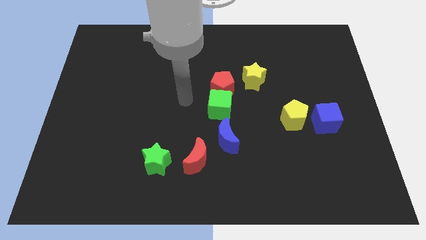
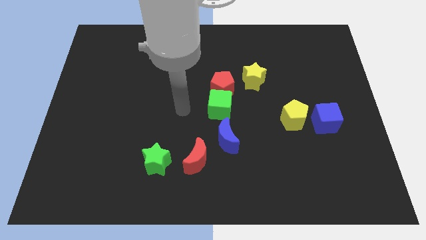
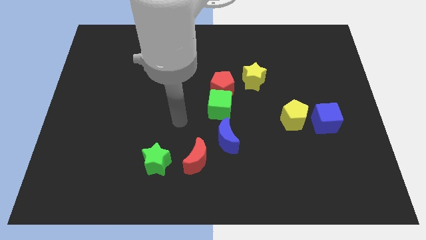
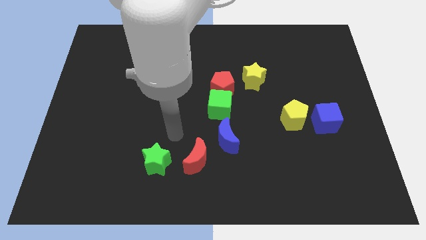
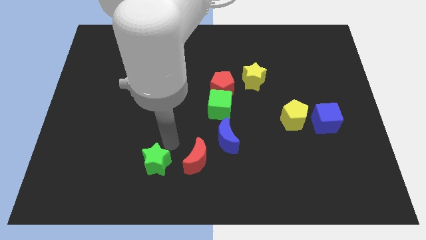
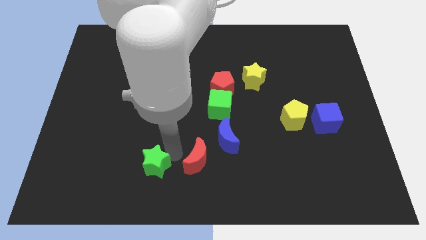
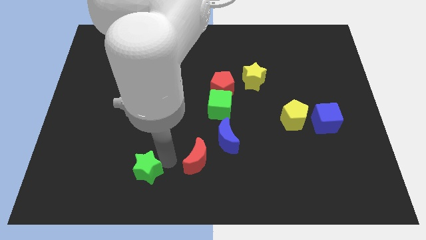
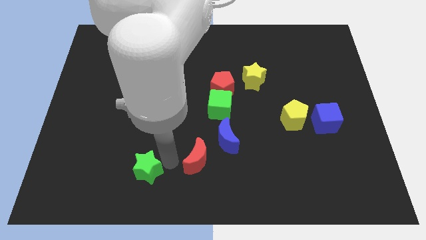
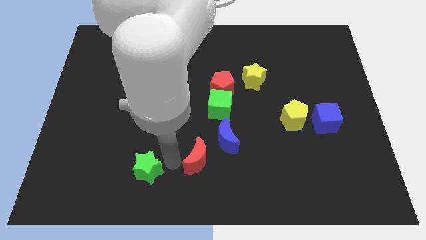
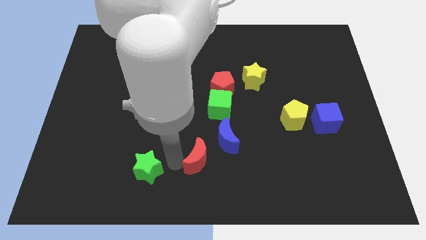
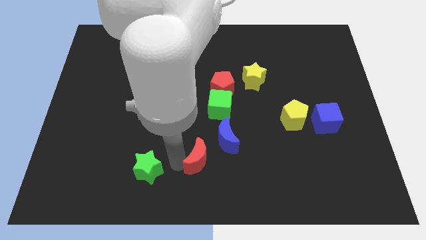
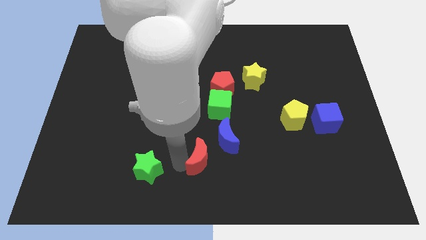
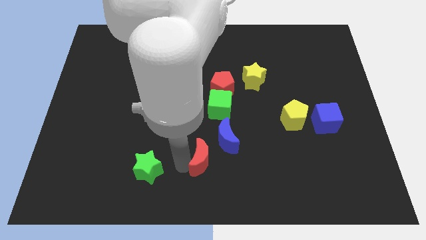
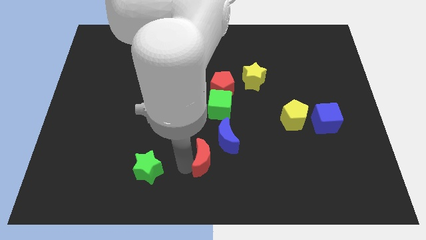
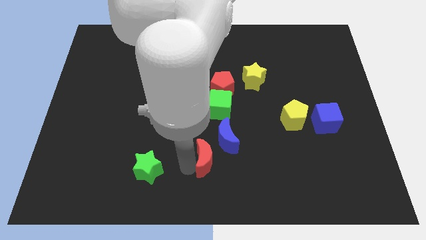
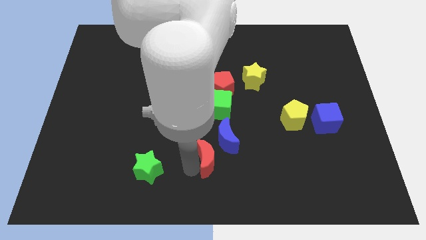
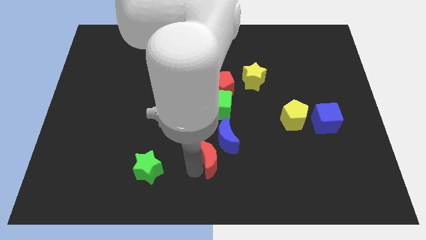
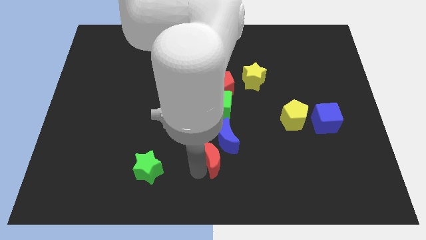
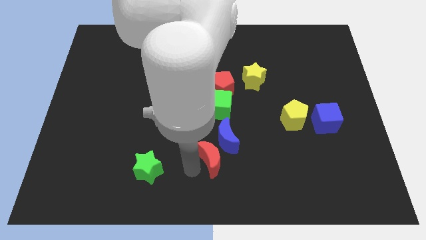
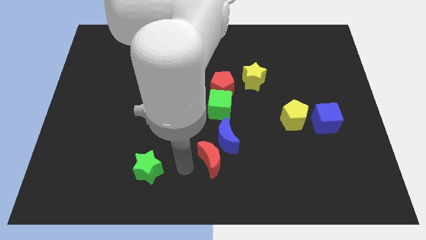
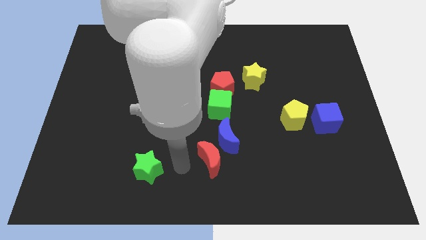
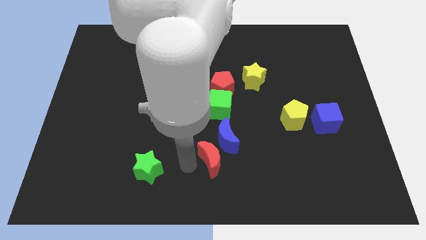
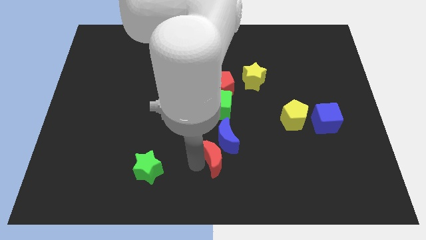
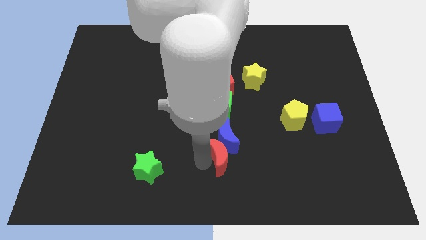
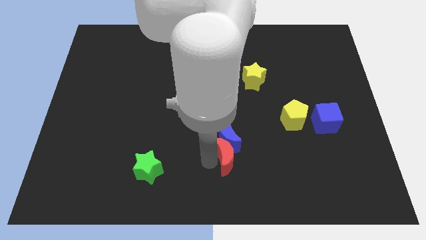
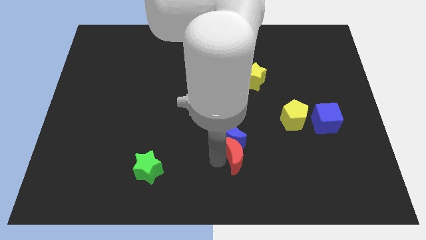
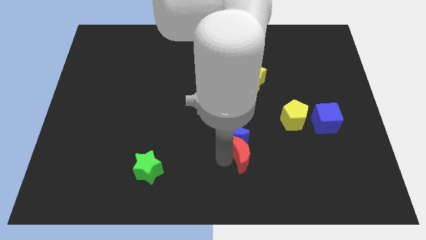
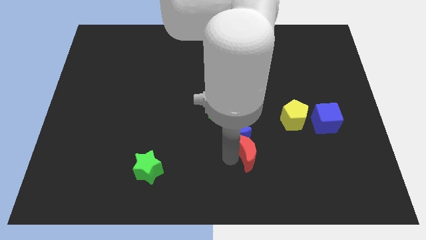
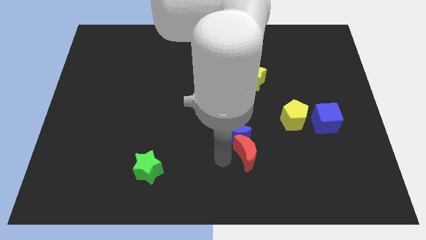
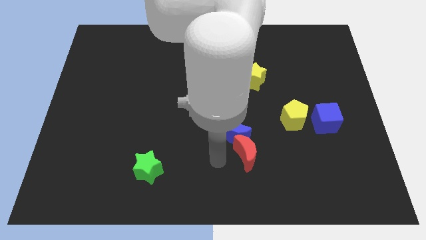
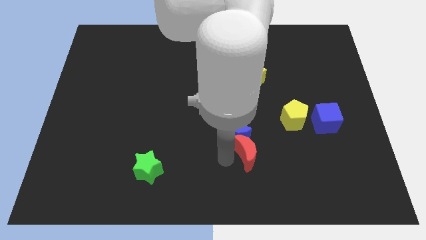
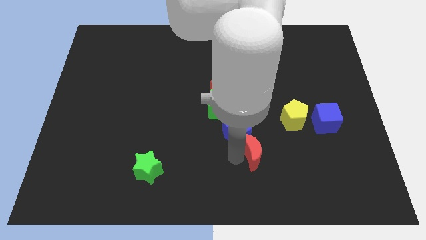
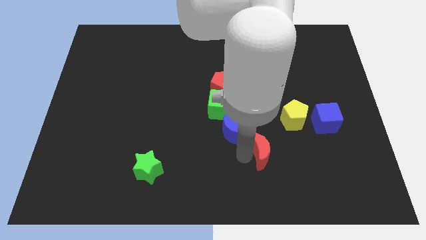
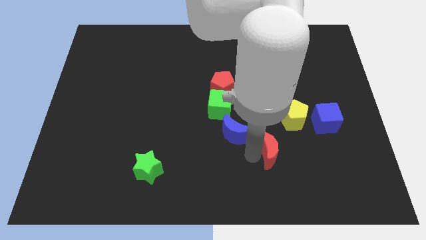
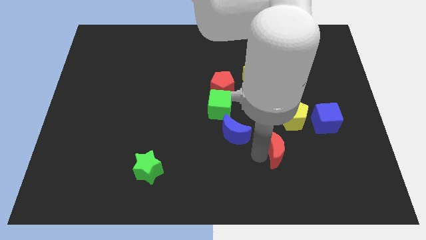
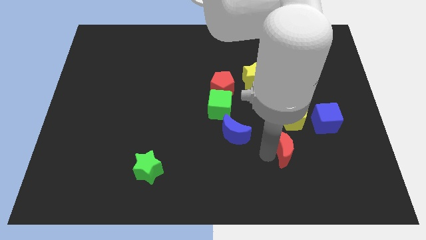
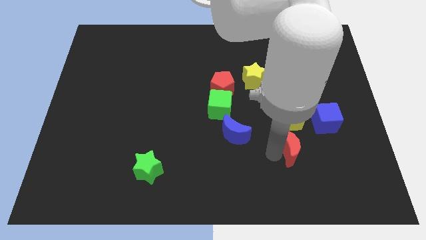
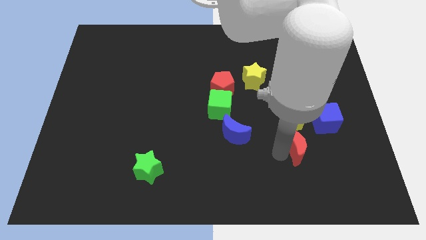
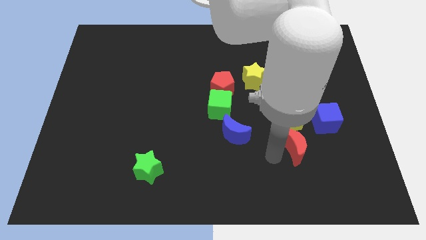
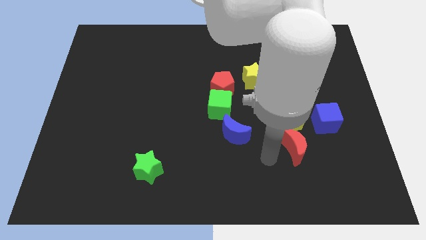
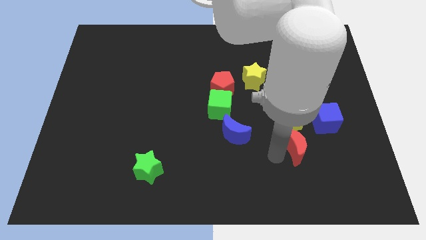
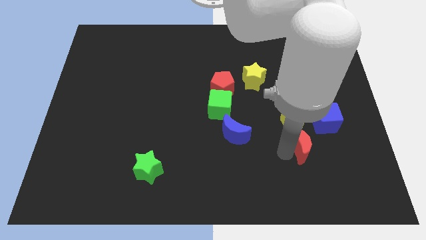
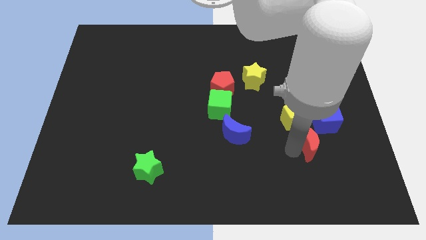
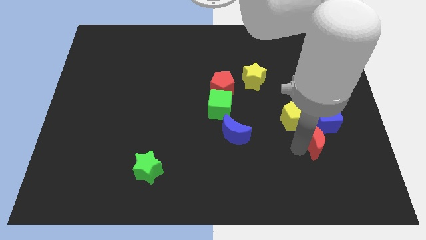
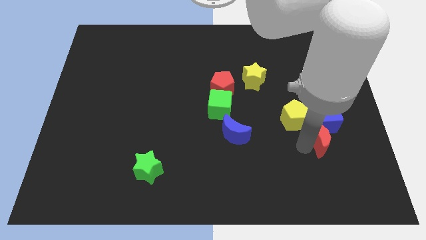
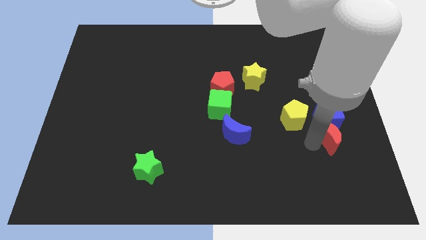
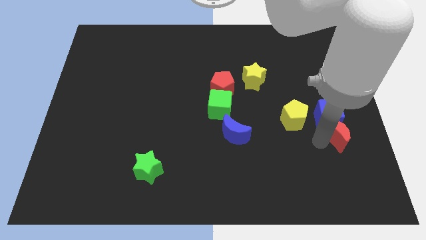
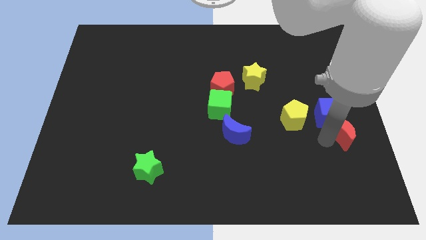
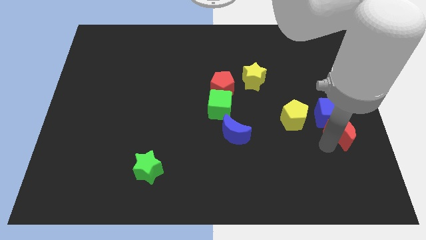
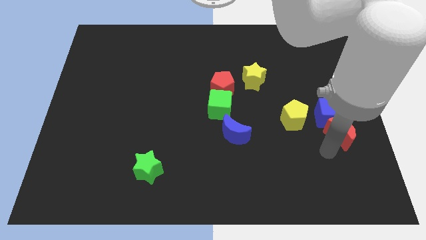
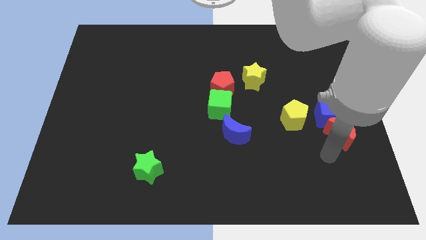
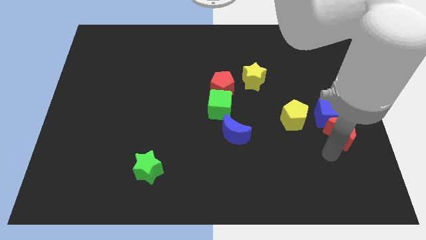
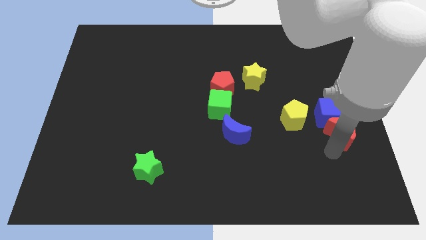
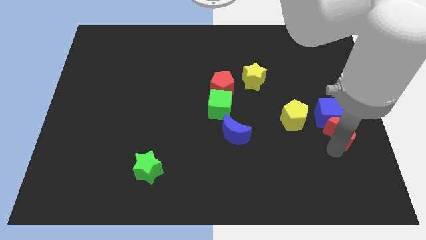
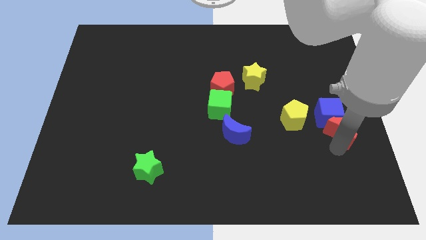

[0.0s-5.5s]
push the red moon to the right side of the board
